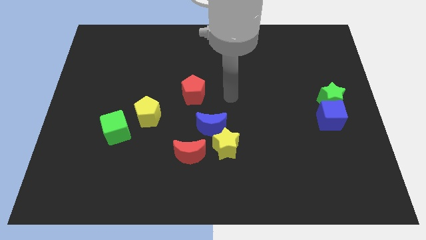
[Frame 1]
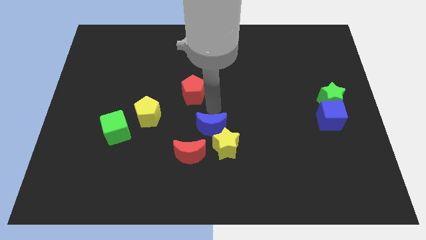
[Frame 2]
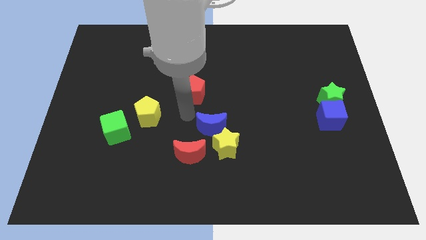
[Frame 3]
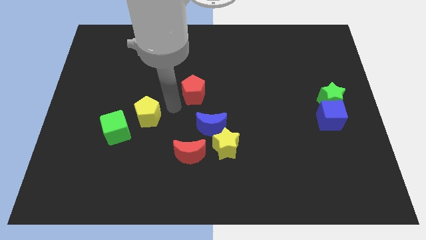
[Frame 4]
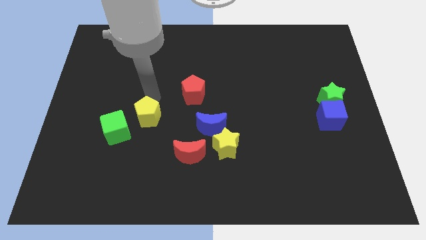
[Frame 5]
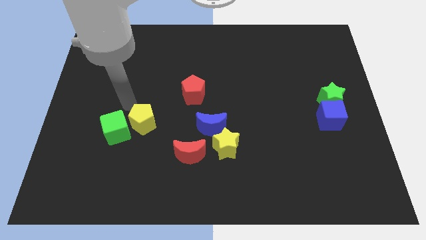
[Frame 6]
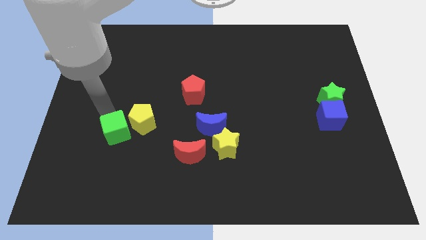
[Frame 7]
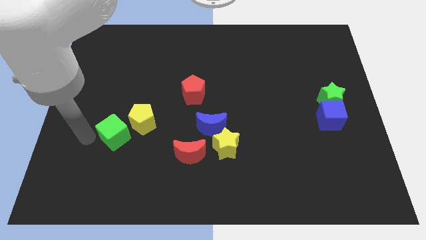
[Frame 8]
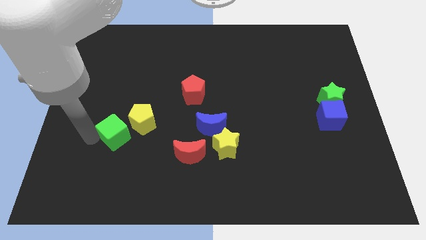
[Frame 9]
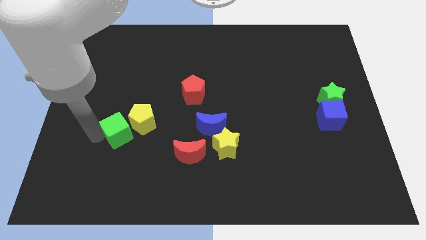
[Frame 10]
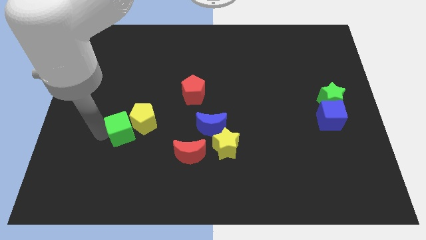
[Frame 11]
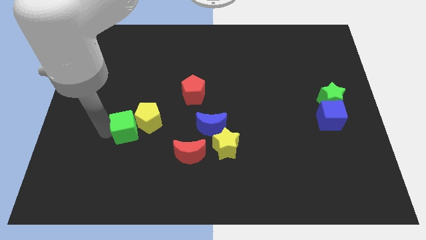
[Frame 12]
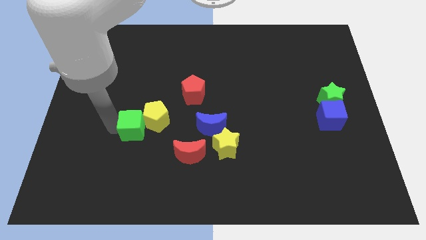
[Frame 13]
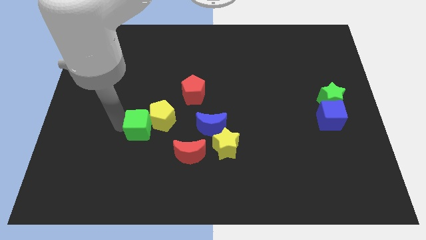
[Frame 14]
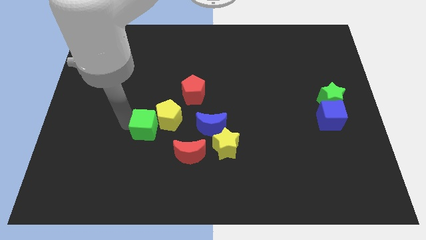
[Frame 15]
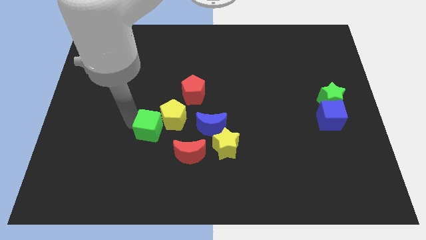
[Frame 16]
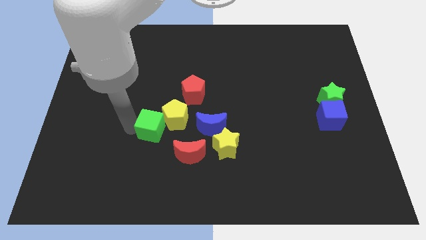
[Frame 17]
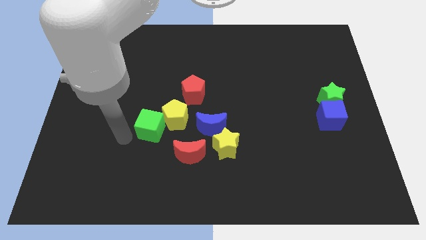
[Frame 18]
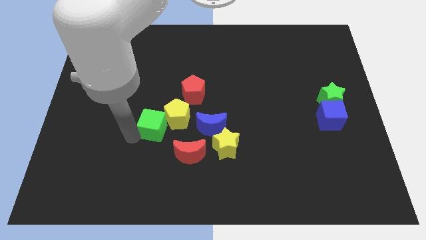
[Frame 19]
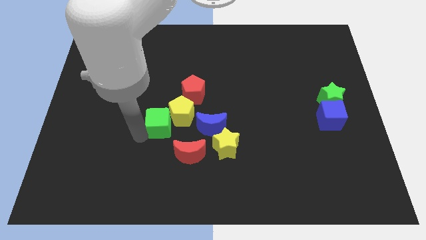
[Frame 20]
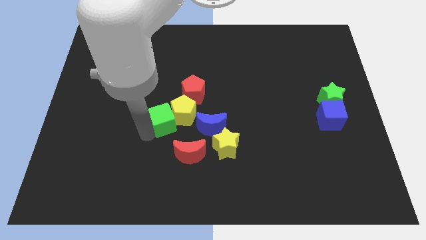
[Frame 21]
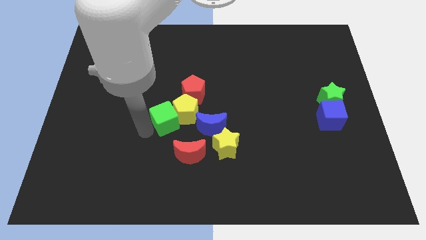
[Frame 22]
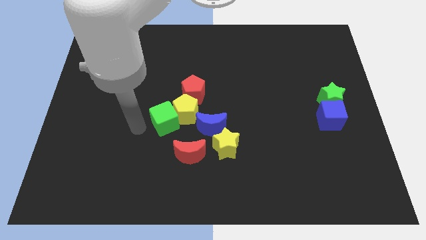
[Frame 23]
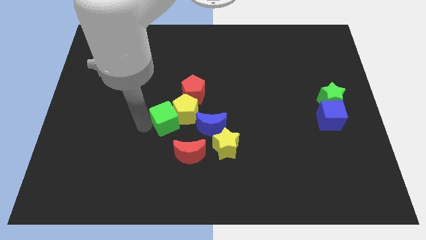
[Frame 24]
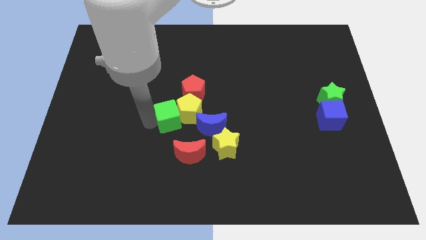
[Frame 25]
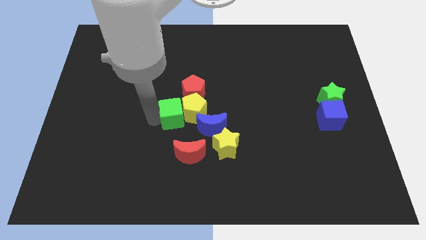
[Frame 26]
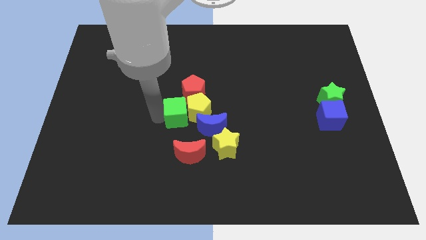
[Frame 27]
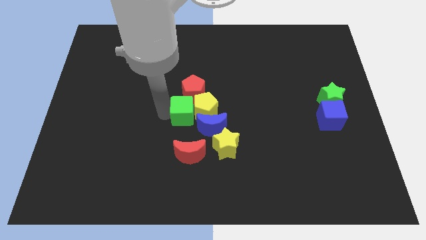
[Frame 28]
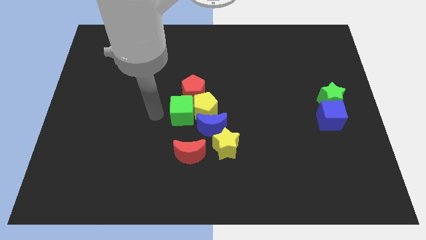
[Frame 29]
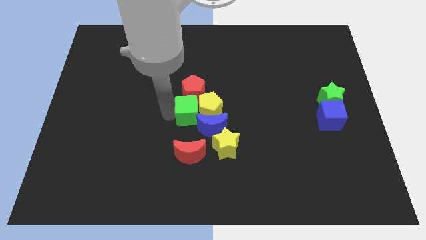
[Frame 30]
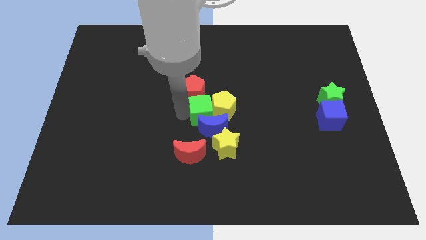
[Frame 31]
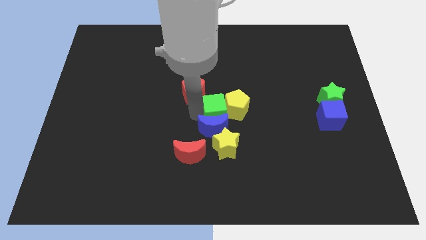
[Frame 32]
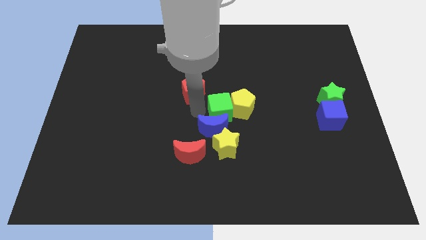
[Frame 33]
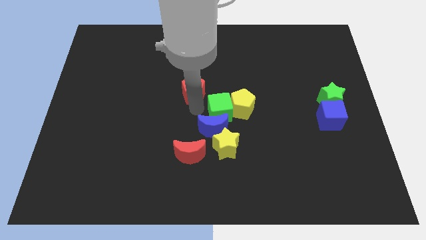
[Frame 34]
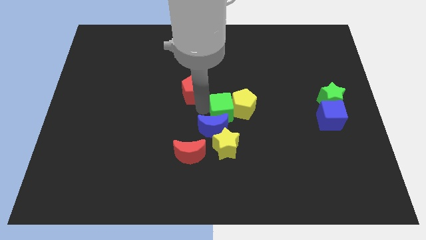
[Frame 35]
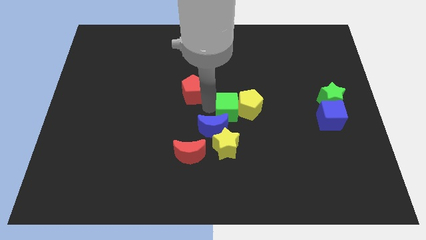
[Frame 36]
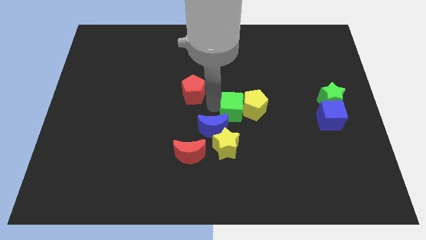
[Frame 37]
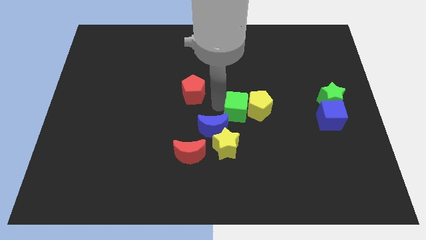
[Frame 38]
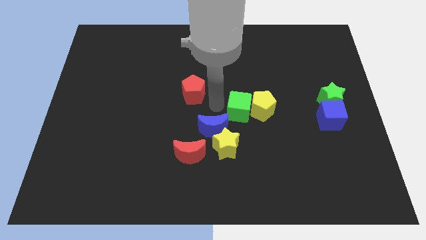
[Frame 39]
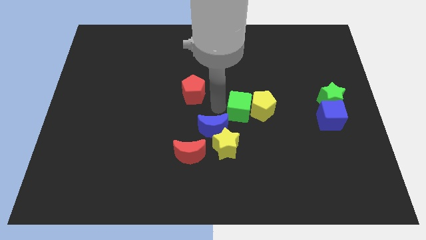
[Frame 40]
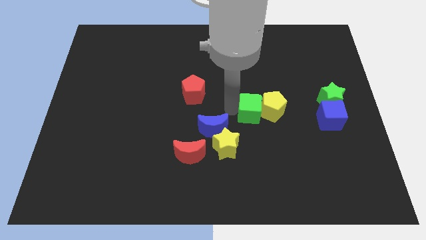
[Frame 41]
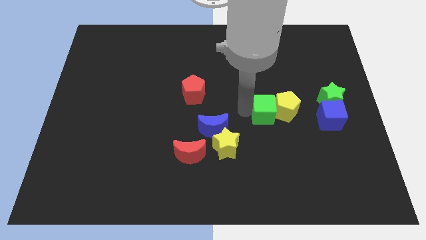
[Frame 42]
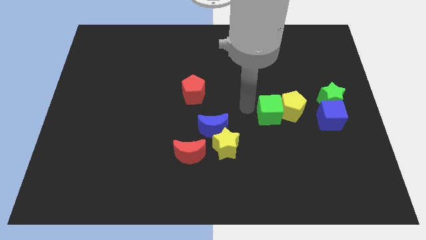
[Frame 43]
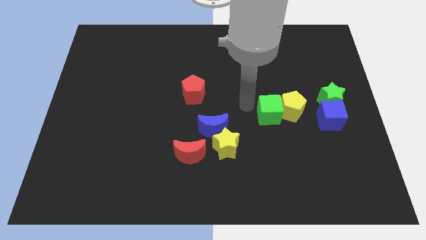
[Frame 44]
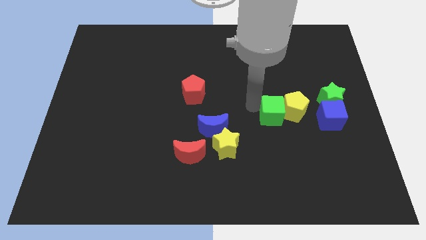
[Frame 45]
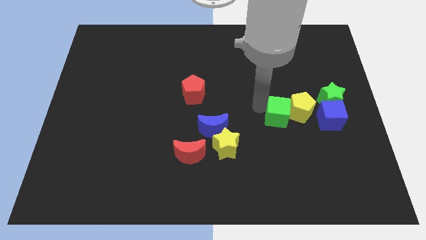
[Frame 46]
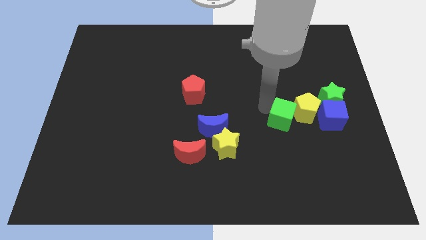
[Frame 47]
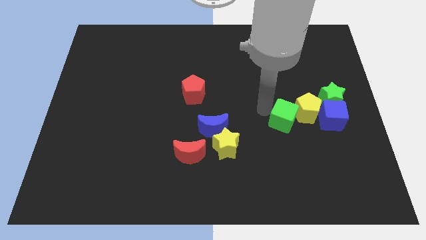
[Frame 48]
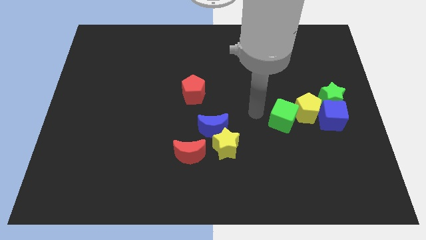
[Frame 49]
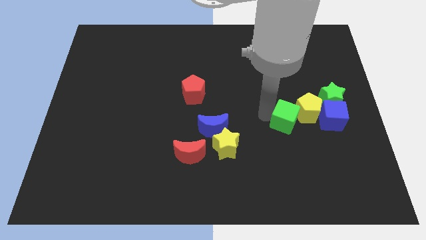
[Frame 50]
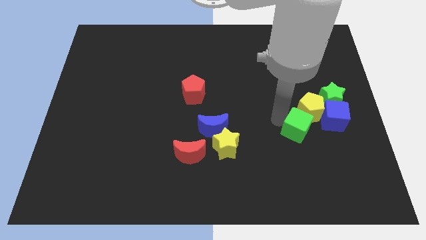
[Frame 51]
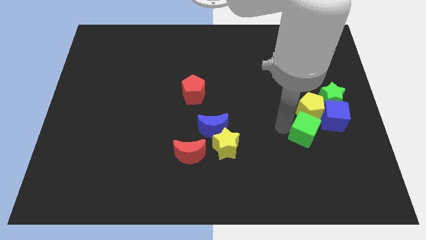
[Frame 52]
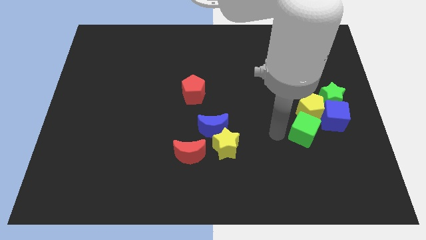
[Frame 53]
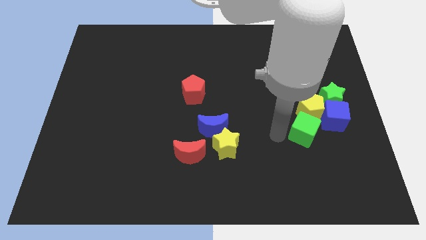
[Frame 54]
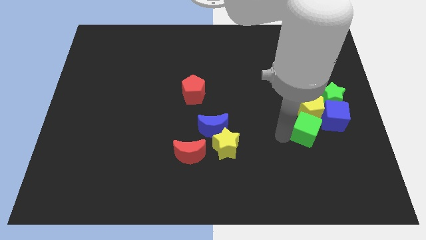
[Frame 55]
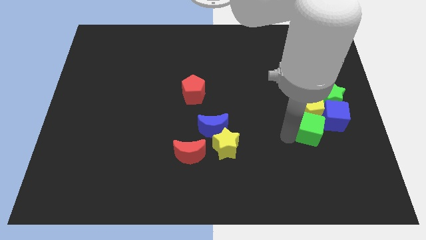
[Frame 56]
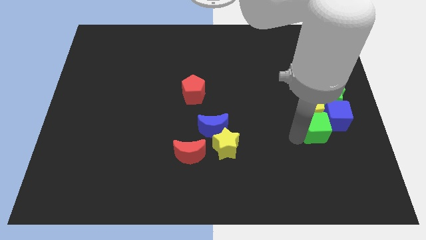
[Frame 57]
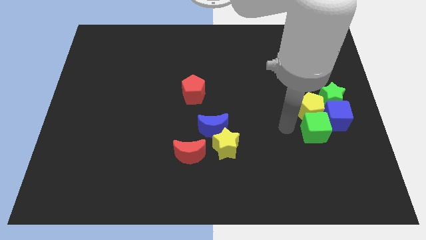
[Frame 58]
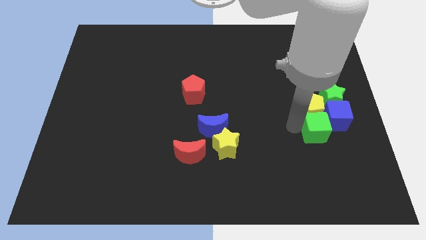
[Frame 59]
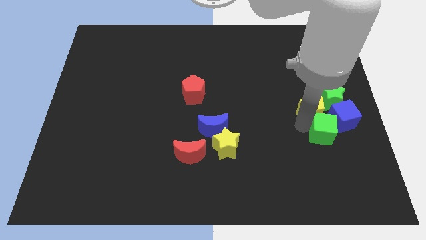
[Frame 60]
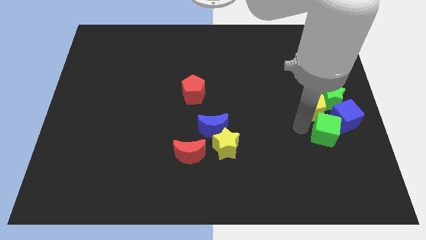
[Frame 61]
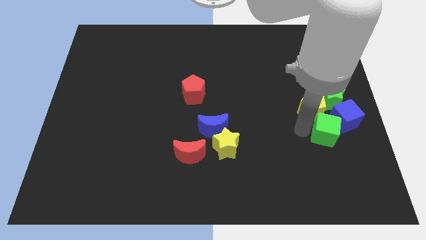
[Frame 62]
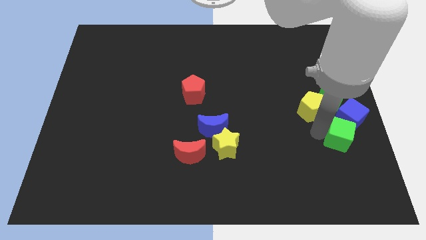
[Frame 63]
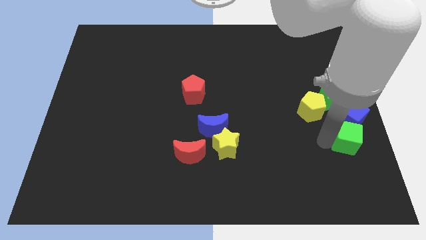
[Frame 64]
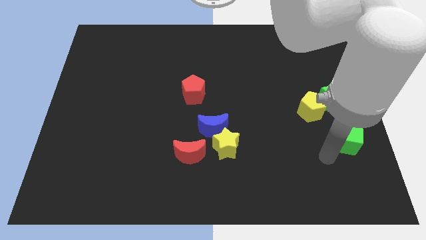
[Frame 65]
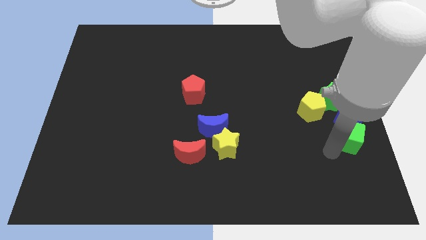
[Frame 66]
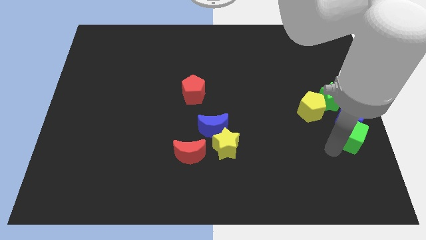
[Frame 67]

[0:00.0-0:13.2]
move the green cube to the right side
